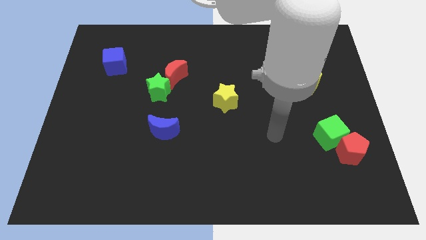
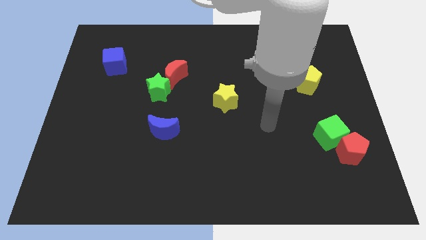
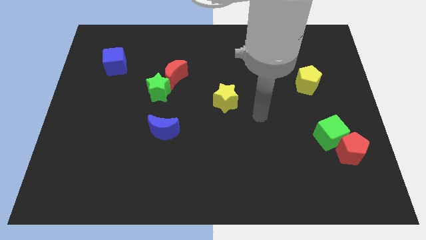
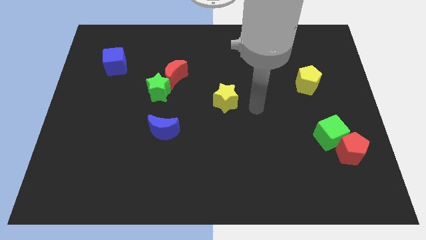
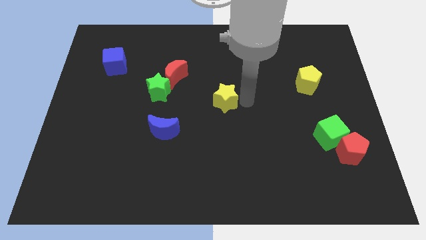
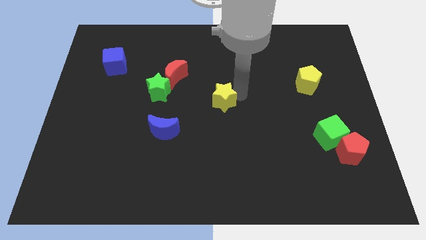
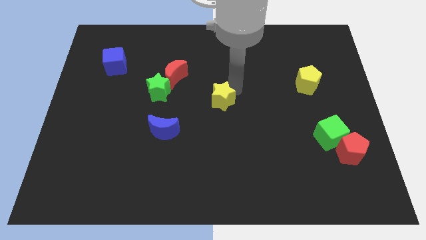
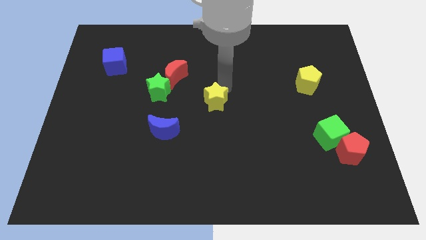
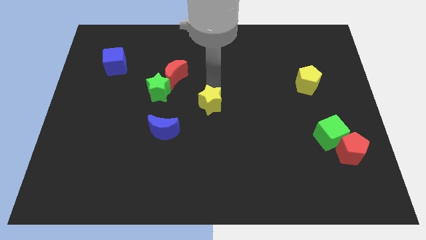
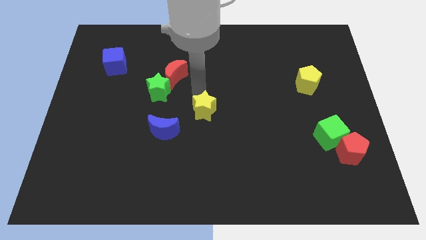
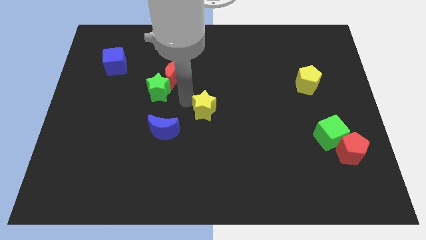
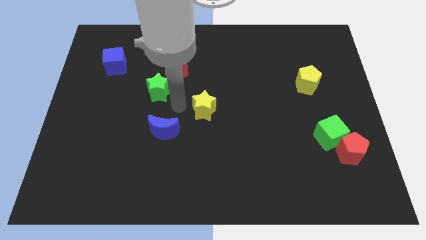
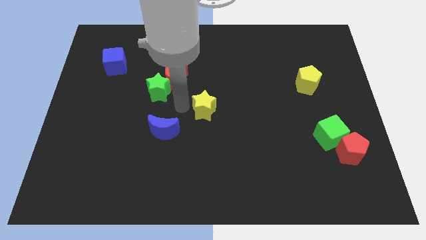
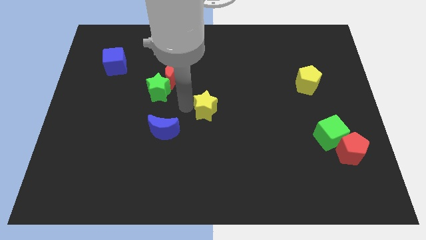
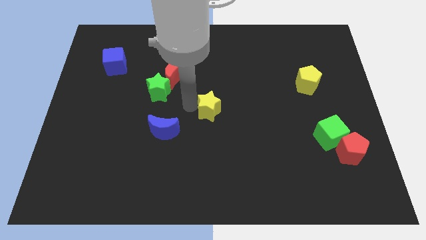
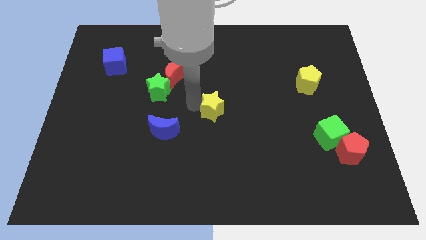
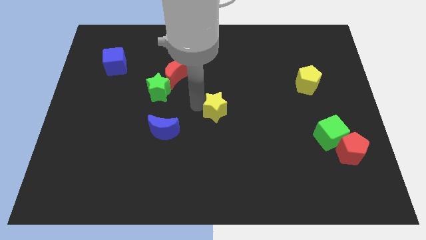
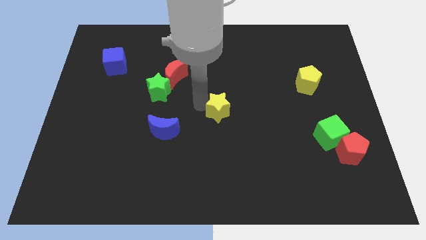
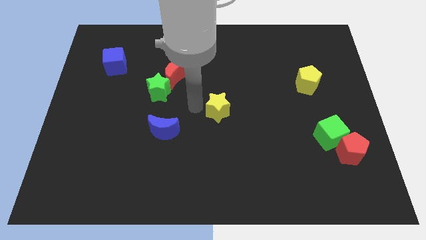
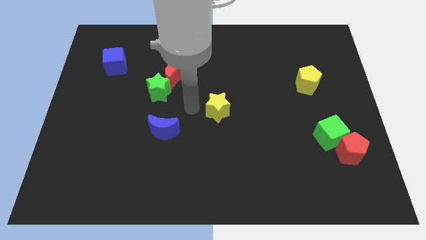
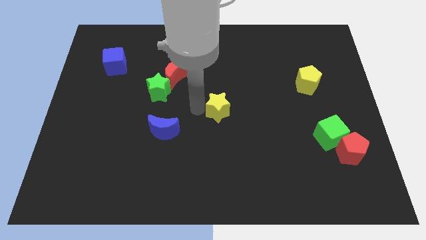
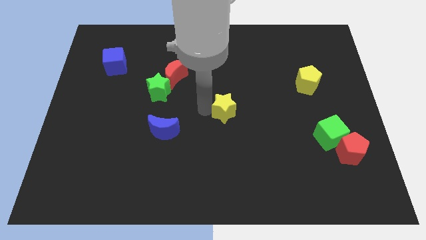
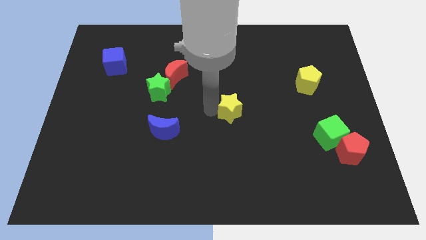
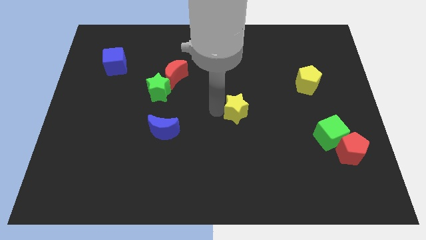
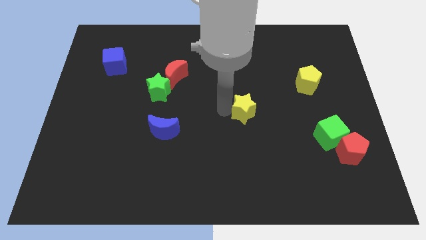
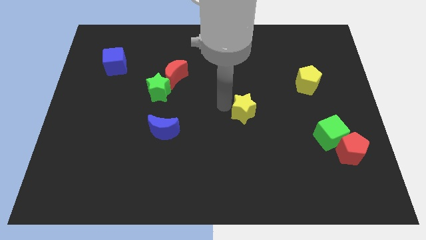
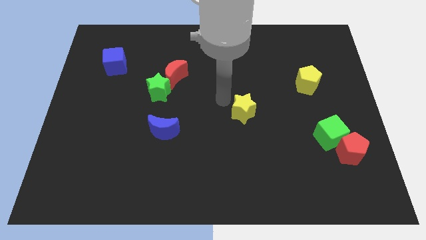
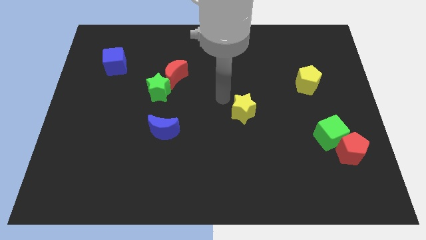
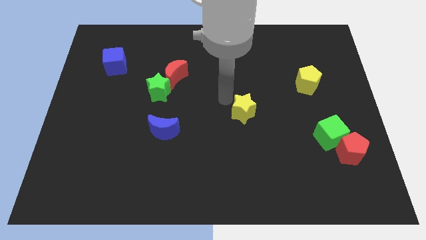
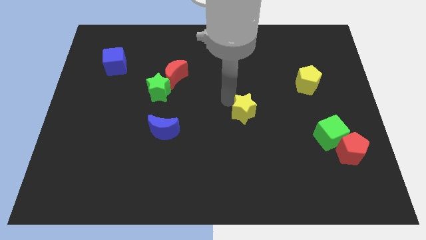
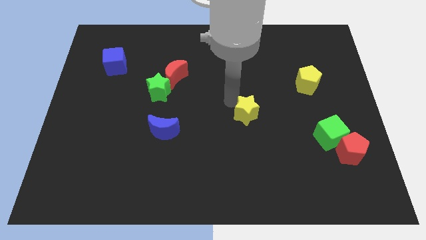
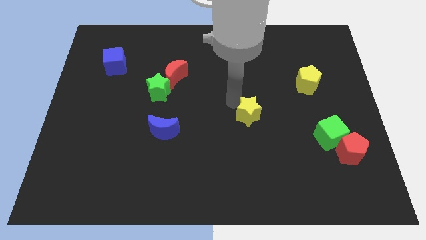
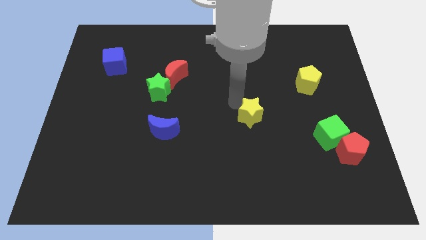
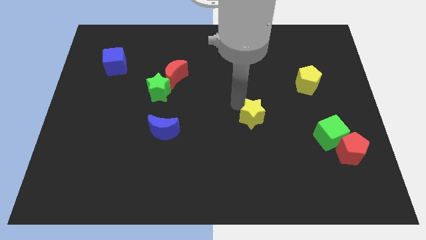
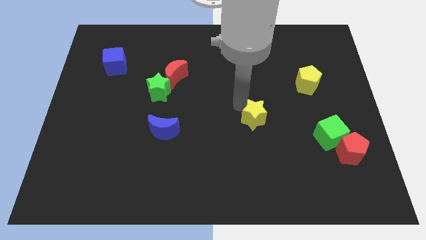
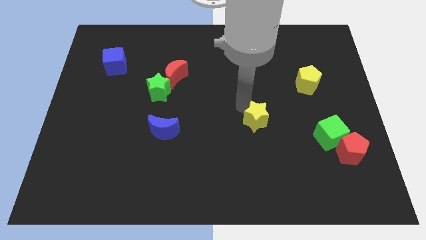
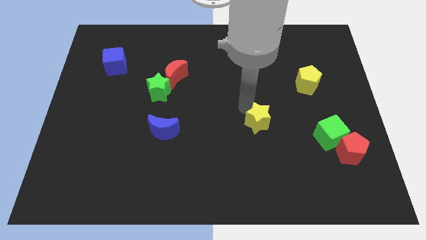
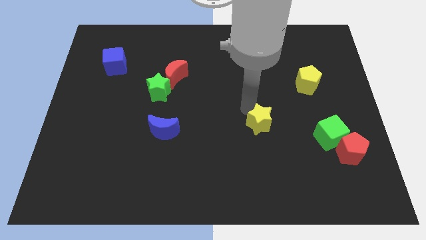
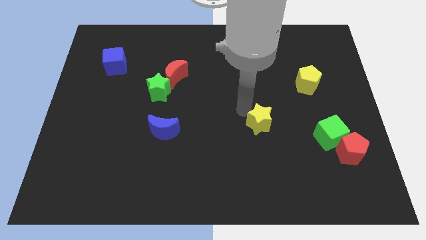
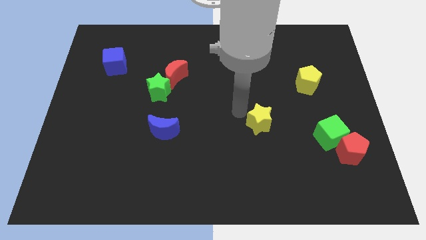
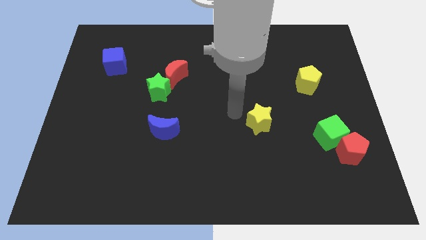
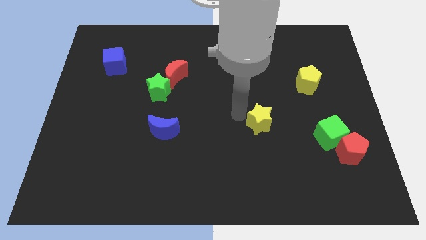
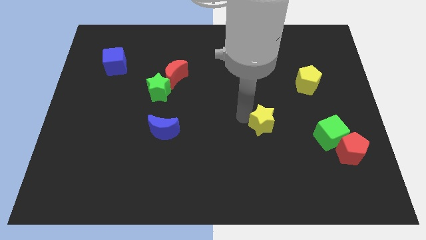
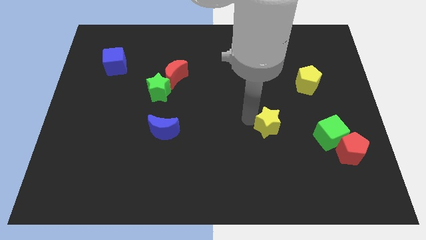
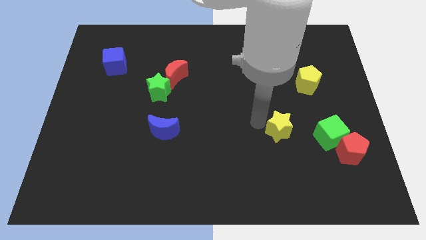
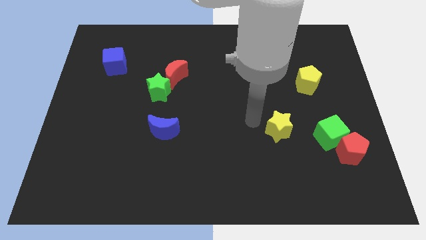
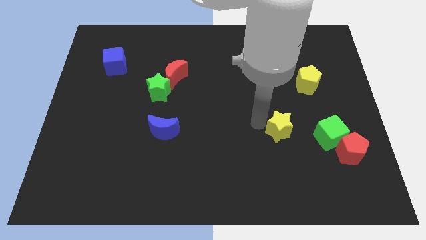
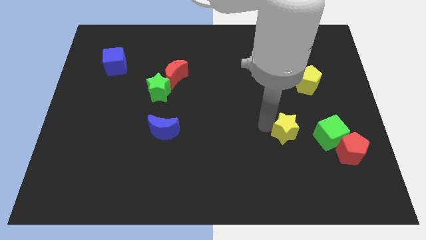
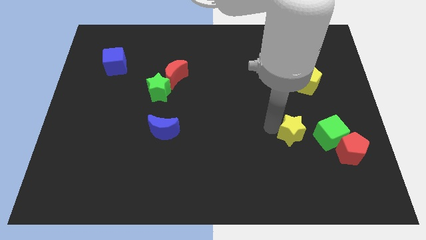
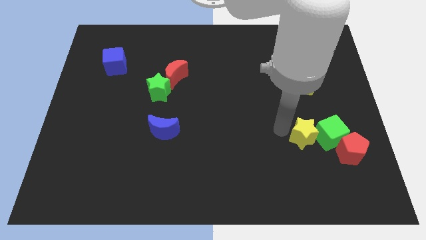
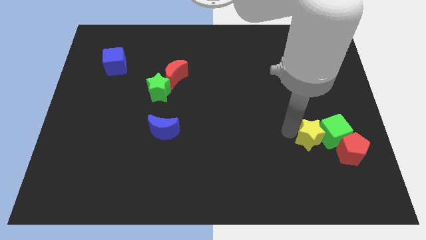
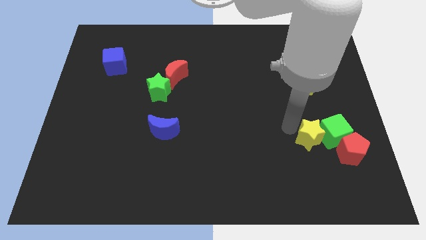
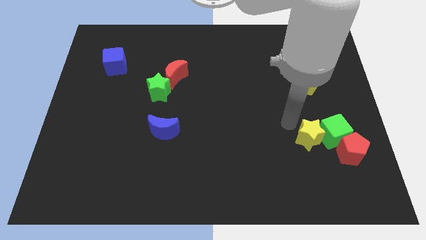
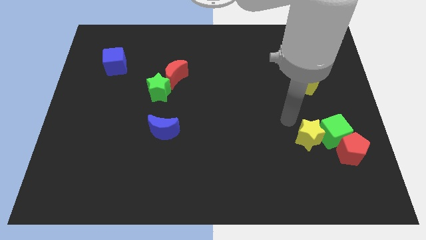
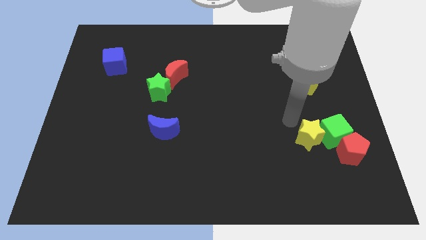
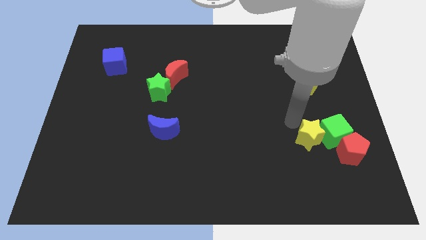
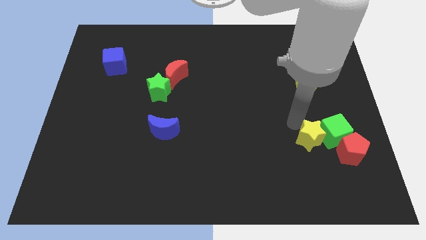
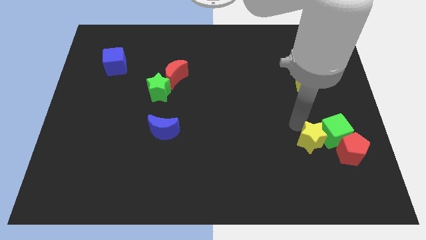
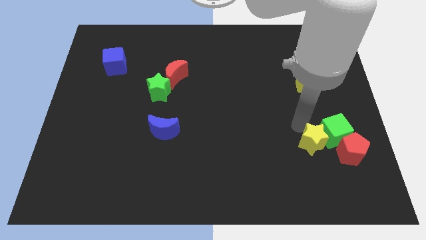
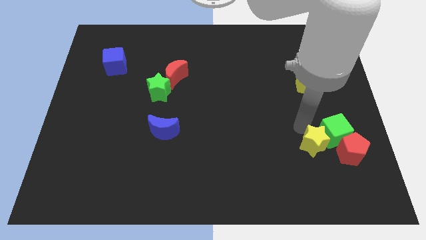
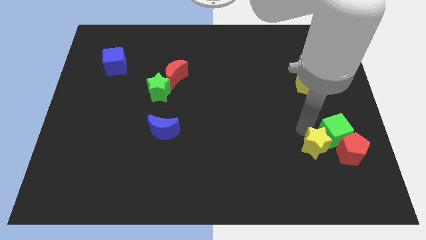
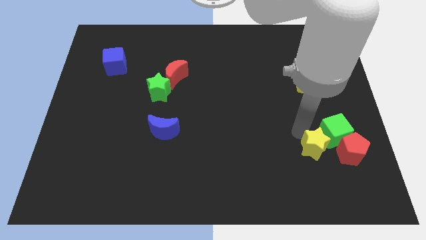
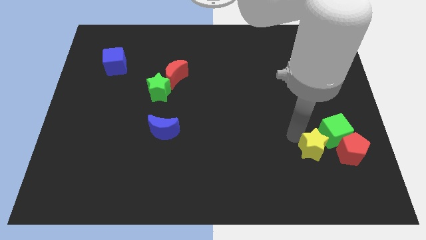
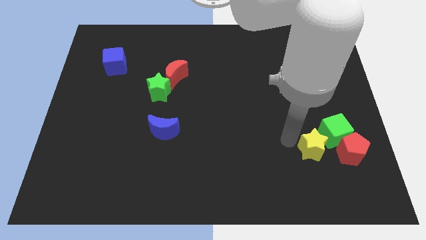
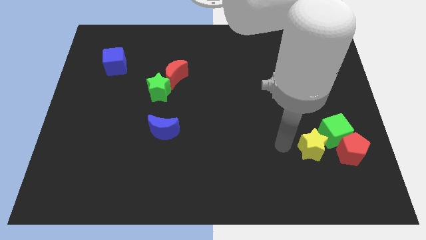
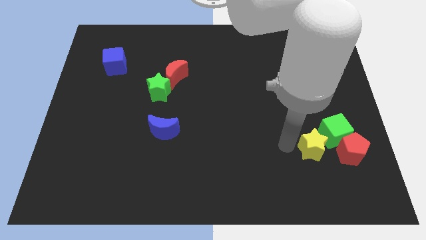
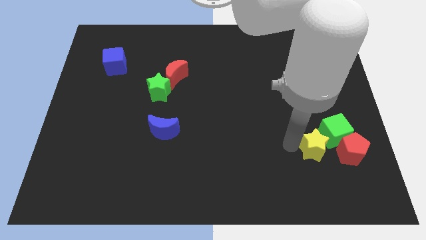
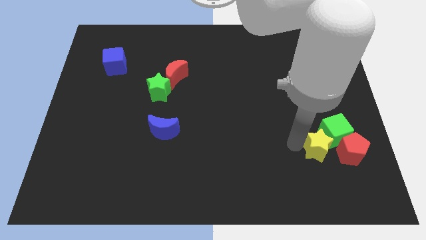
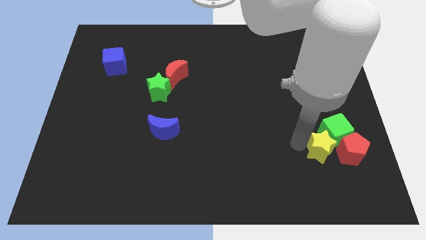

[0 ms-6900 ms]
move the yellow star towards the red pentagon

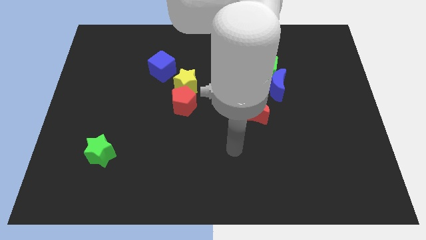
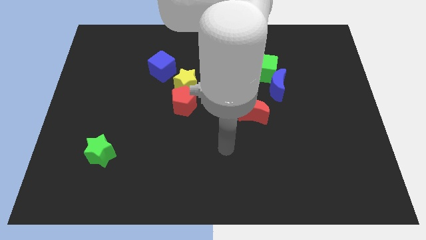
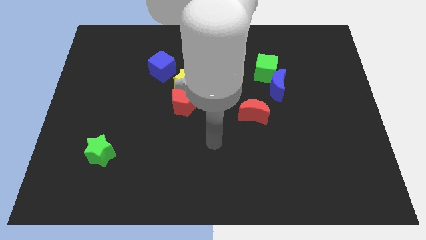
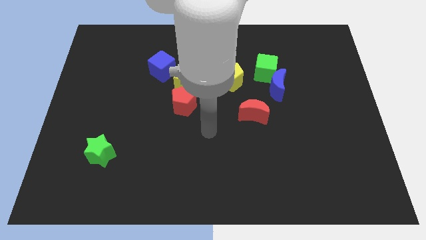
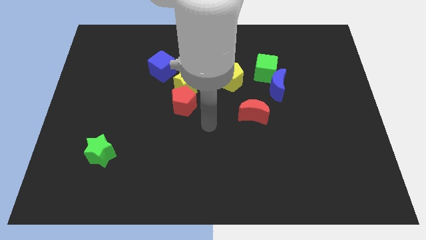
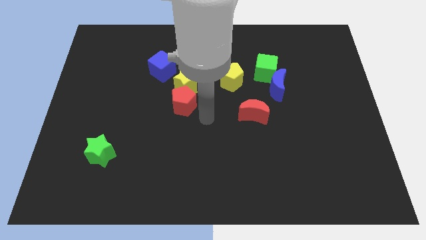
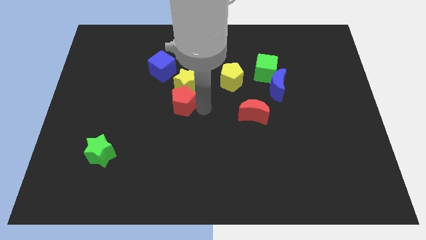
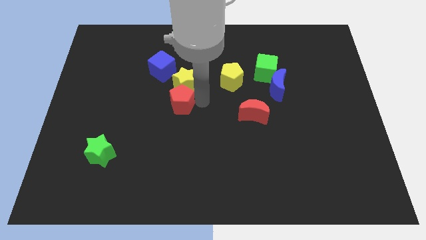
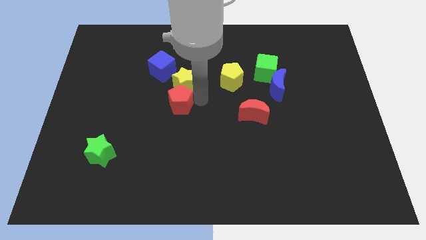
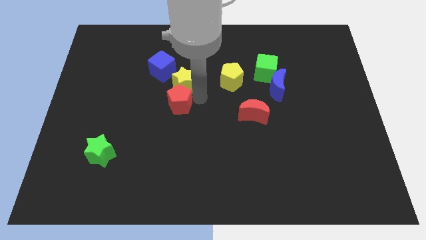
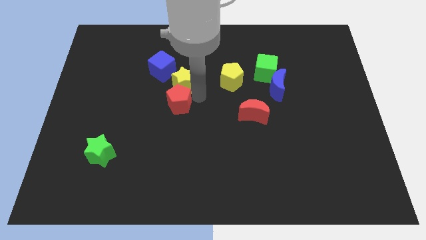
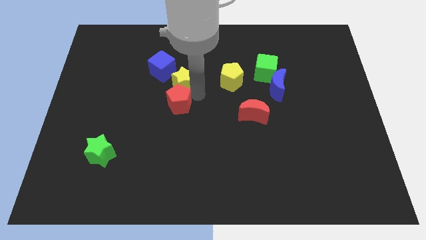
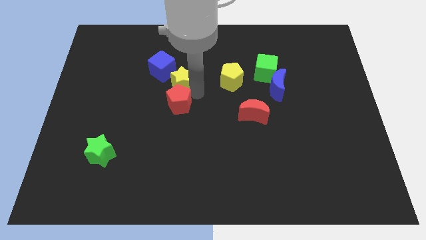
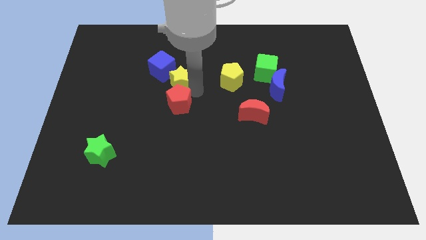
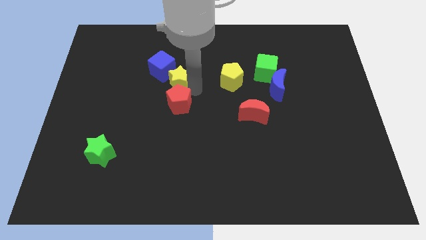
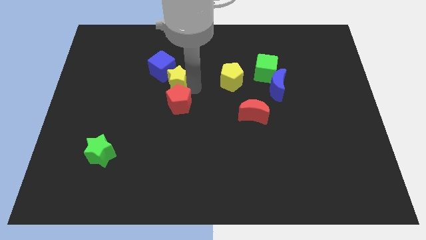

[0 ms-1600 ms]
slide the yellow star close to the blue cube

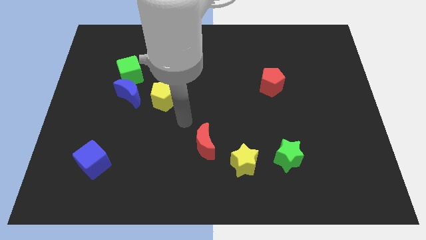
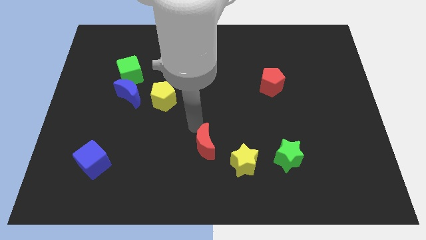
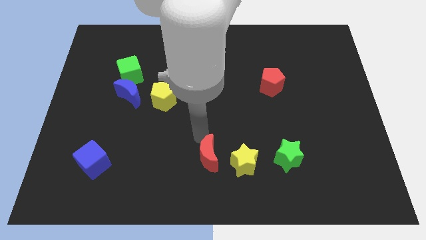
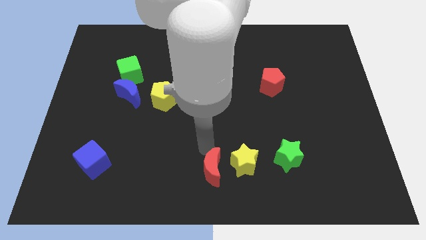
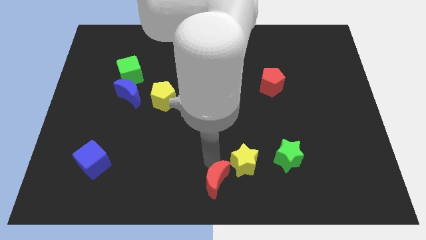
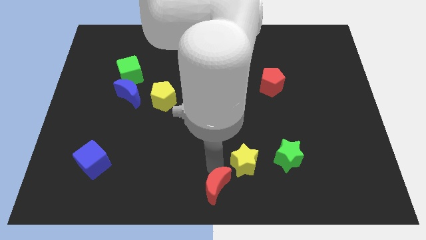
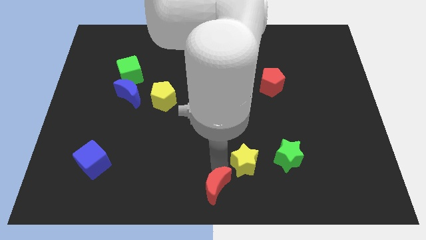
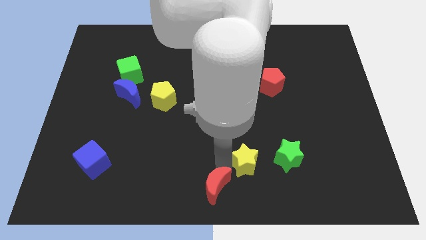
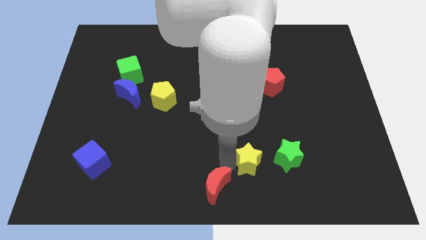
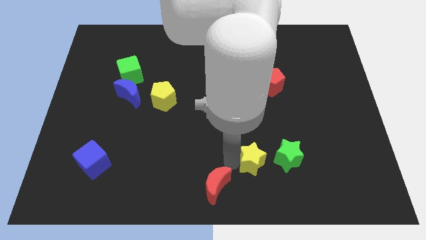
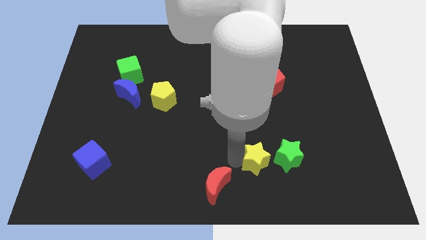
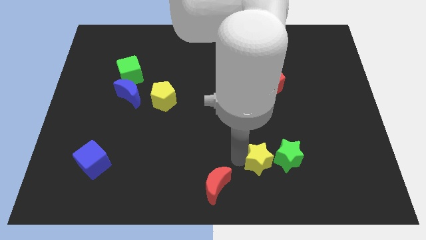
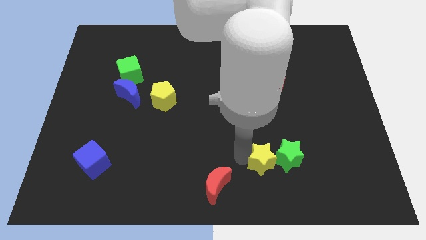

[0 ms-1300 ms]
move the yellow star next to the green star
